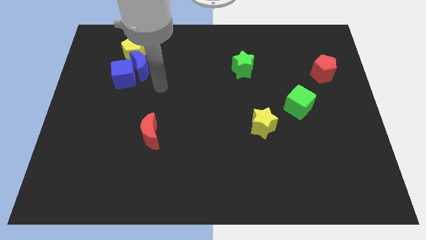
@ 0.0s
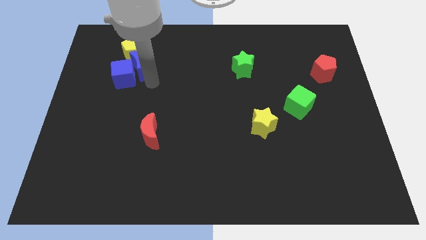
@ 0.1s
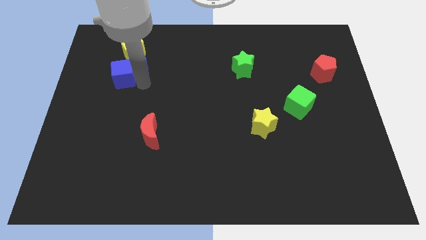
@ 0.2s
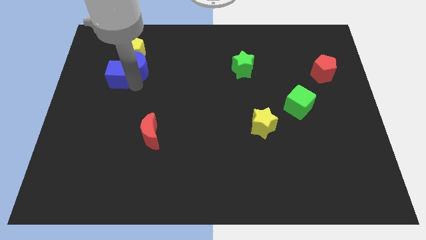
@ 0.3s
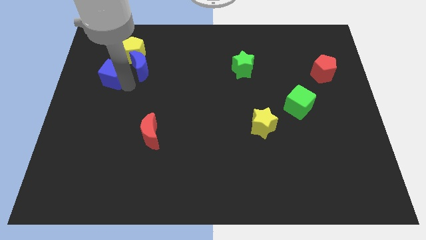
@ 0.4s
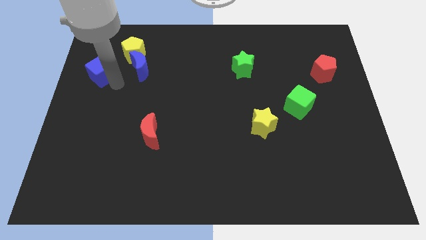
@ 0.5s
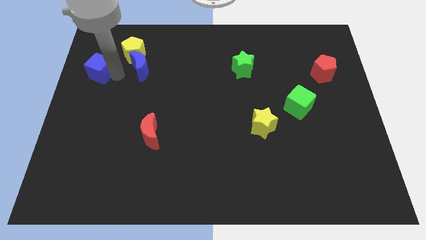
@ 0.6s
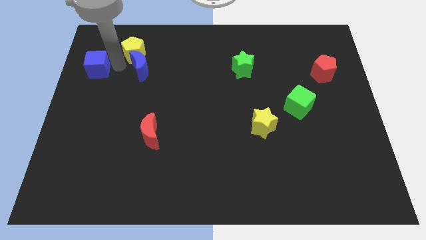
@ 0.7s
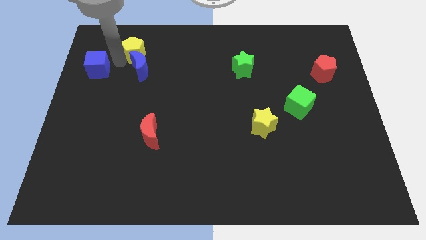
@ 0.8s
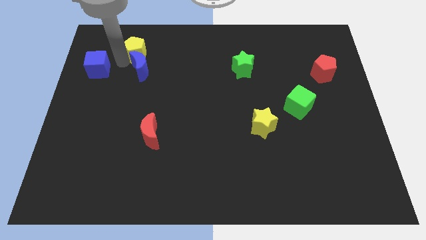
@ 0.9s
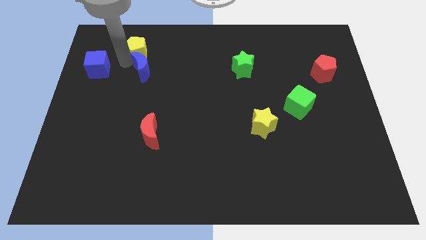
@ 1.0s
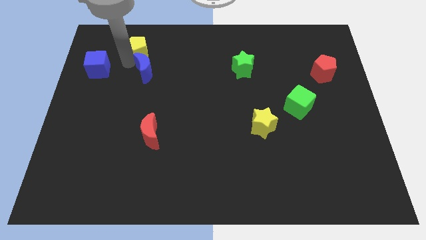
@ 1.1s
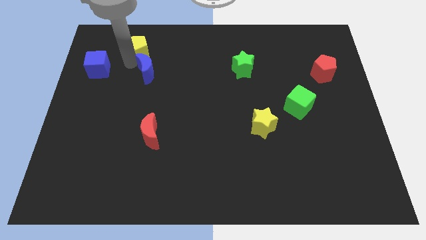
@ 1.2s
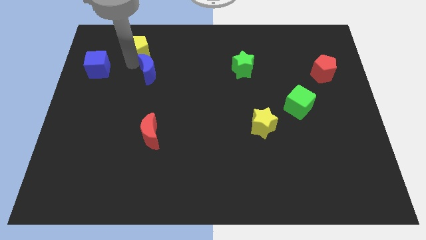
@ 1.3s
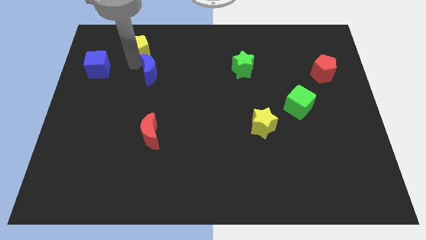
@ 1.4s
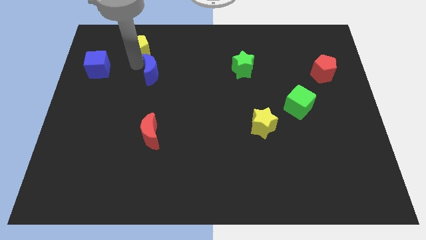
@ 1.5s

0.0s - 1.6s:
separate the blue moon from the blue cube and yellow pentagon

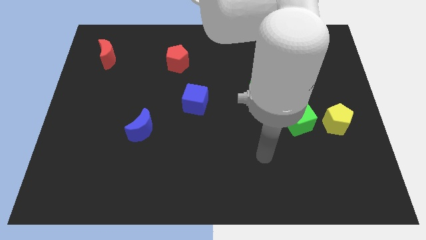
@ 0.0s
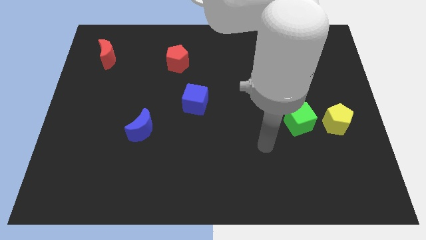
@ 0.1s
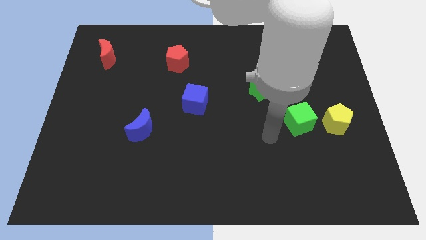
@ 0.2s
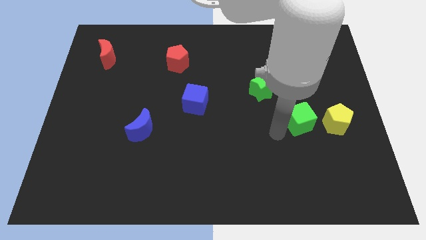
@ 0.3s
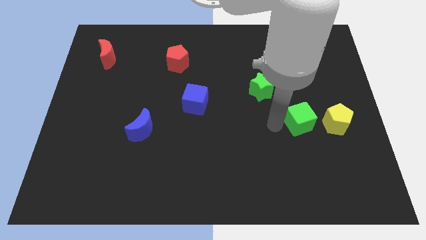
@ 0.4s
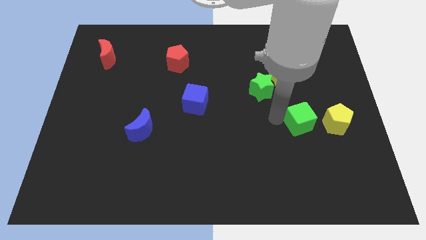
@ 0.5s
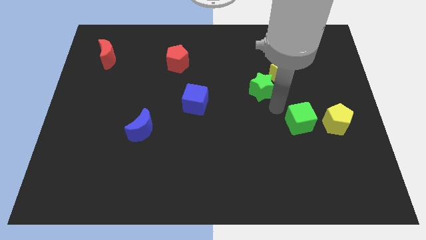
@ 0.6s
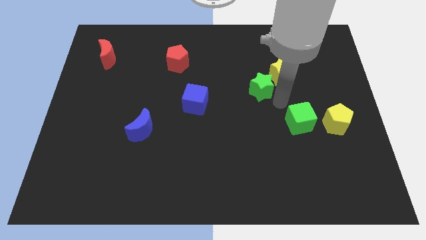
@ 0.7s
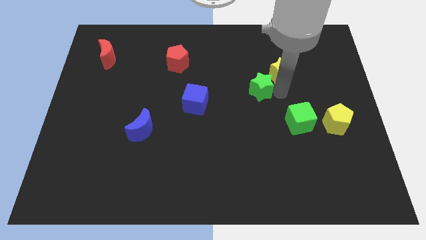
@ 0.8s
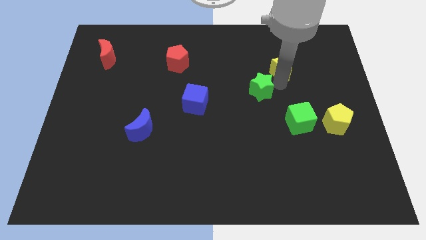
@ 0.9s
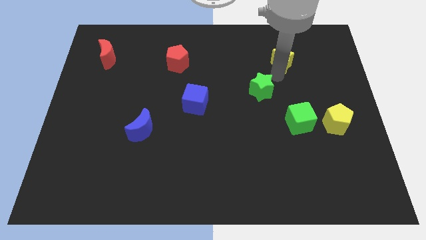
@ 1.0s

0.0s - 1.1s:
pull the green star apart from the yellow star

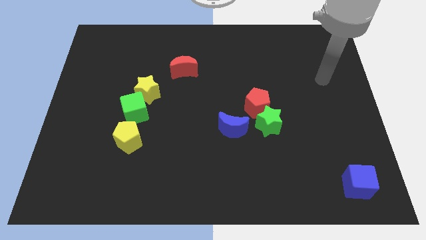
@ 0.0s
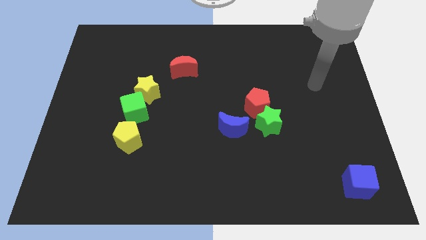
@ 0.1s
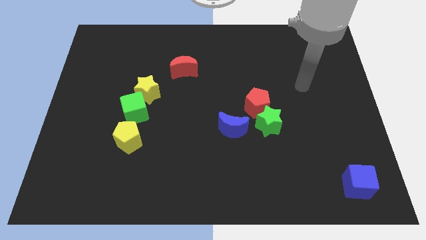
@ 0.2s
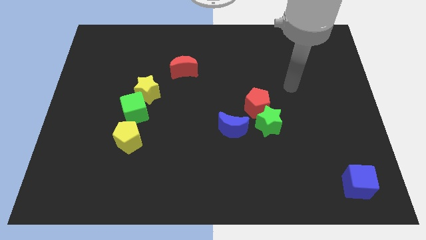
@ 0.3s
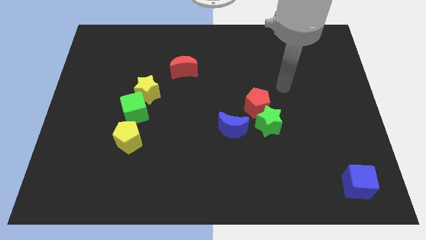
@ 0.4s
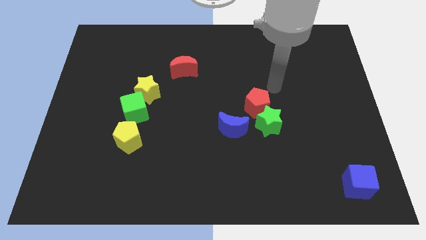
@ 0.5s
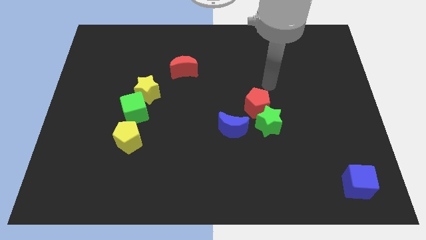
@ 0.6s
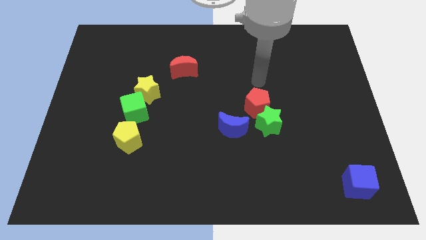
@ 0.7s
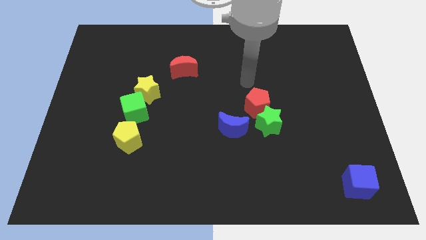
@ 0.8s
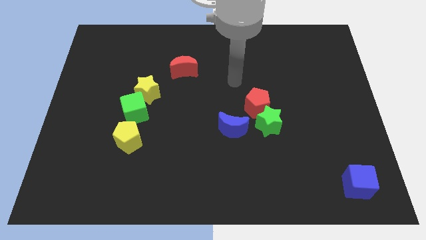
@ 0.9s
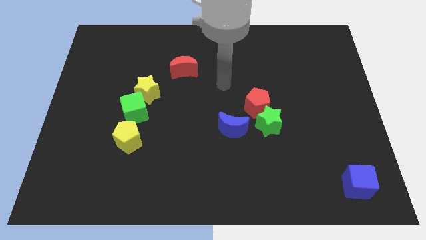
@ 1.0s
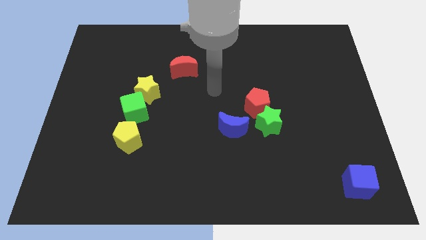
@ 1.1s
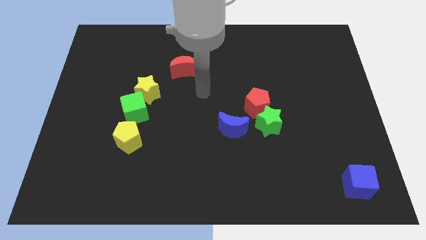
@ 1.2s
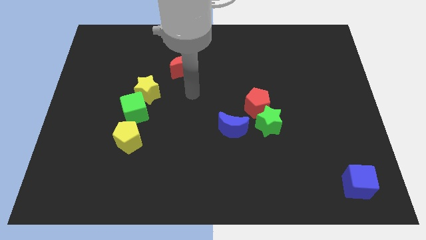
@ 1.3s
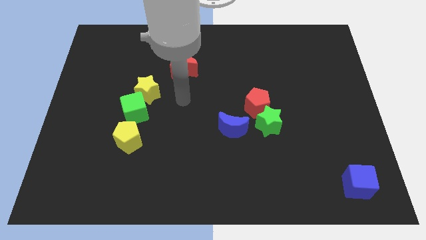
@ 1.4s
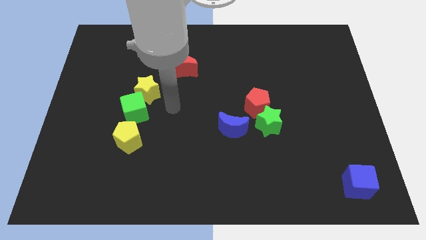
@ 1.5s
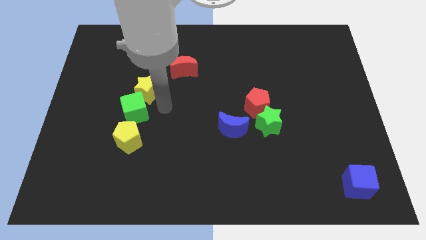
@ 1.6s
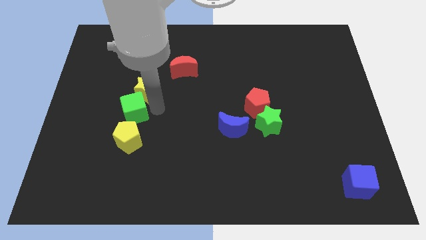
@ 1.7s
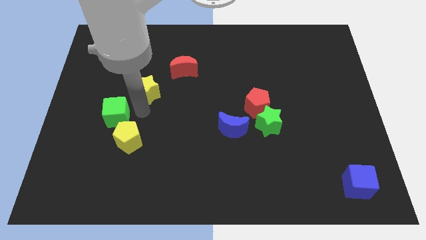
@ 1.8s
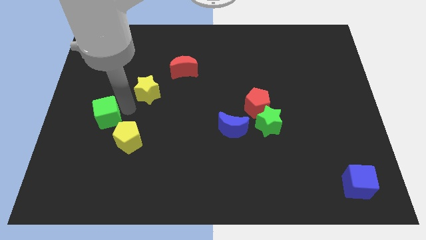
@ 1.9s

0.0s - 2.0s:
separate the yellow star from the green cube

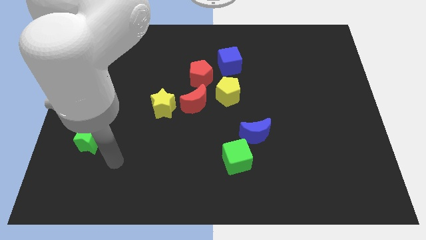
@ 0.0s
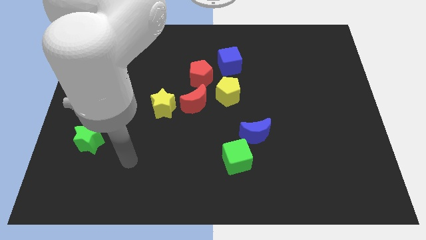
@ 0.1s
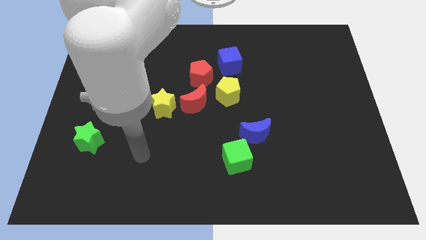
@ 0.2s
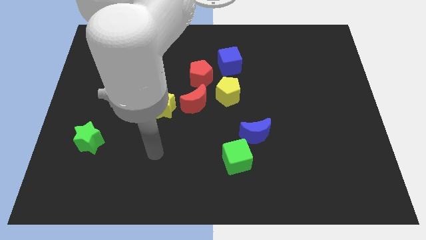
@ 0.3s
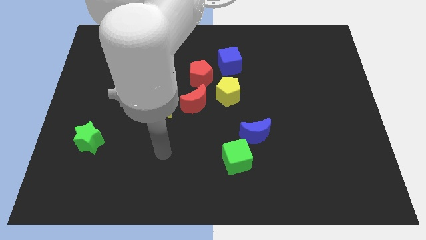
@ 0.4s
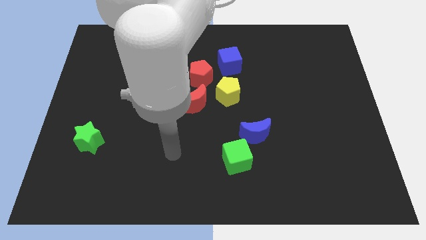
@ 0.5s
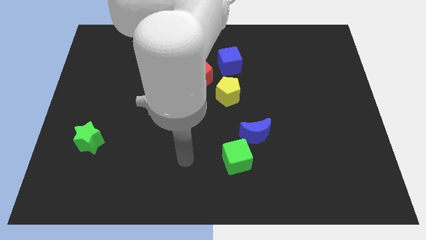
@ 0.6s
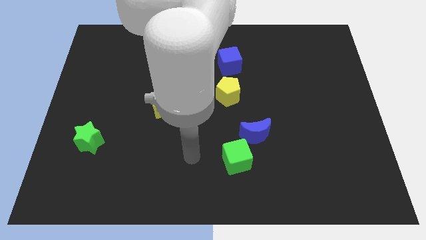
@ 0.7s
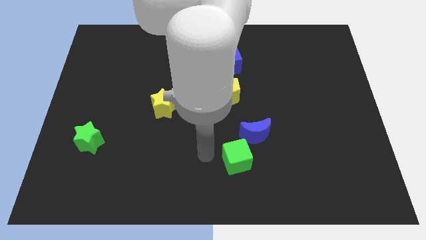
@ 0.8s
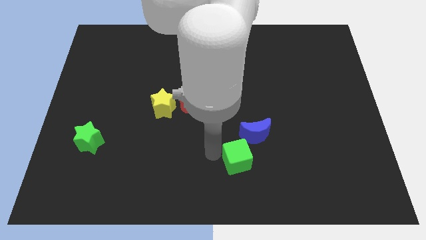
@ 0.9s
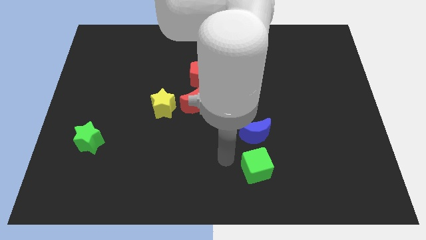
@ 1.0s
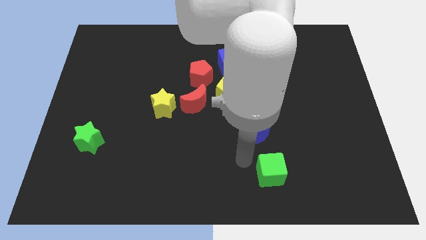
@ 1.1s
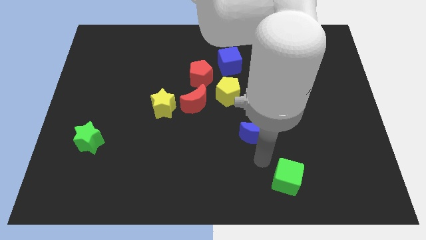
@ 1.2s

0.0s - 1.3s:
pull the blue moon apart from the green cube

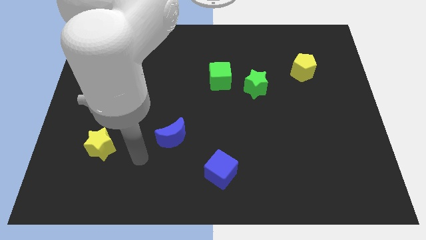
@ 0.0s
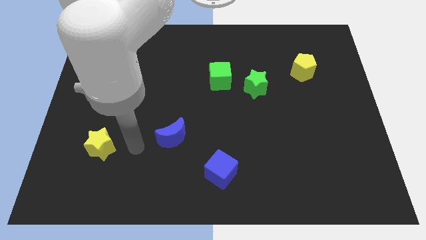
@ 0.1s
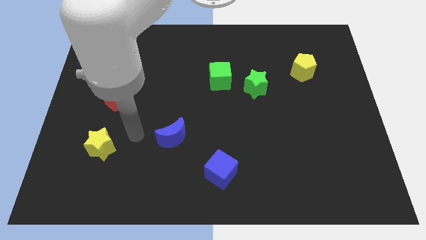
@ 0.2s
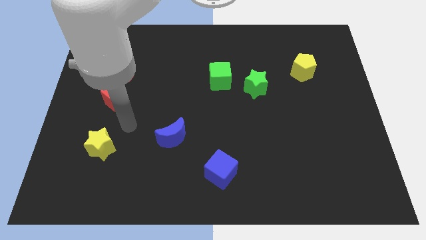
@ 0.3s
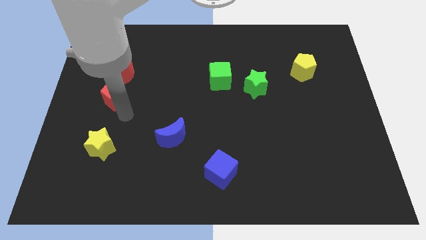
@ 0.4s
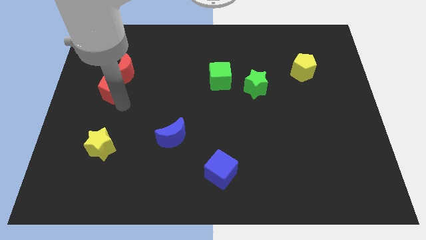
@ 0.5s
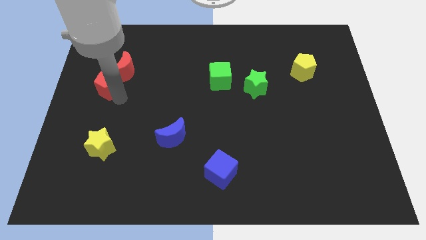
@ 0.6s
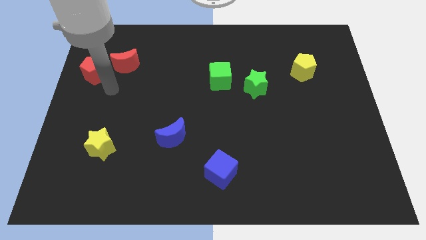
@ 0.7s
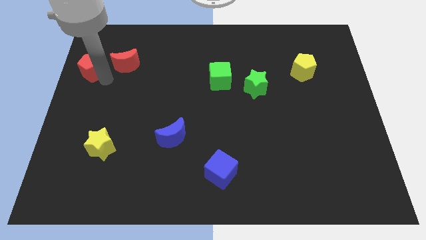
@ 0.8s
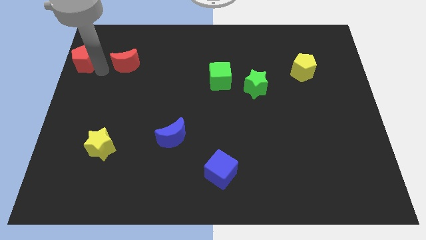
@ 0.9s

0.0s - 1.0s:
separate the red moon from the red pentagon

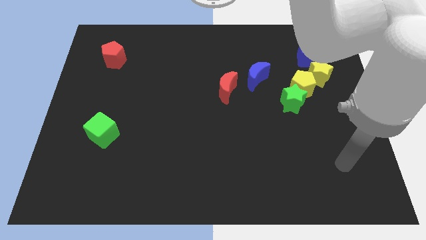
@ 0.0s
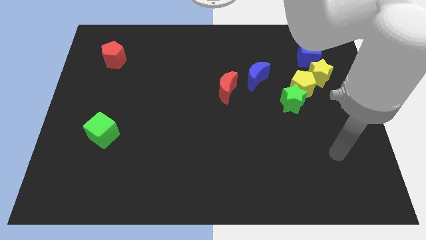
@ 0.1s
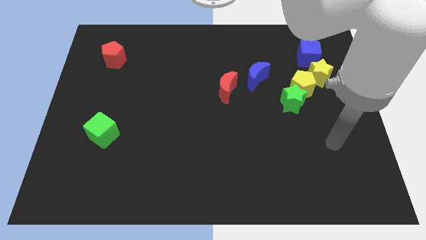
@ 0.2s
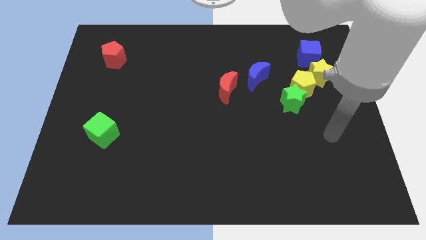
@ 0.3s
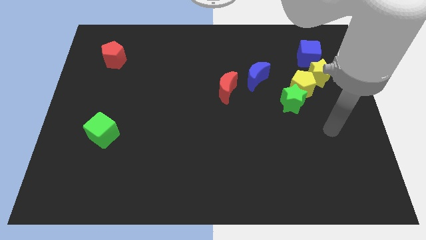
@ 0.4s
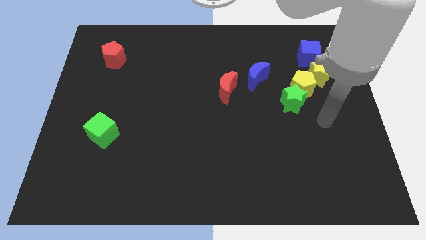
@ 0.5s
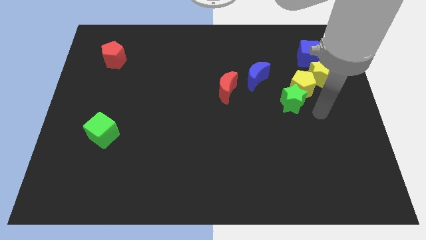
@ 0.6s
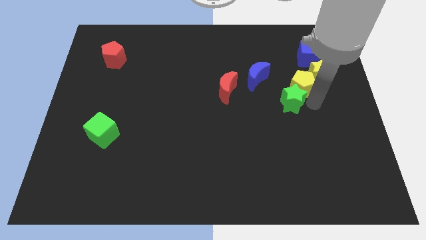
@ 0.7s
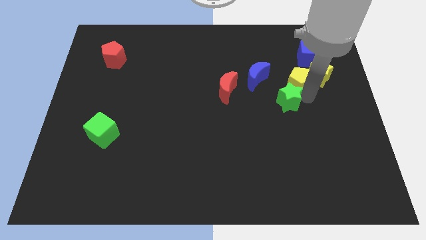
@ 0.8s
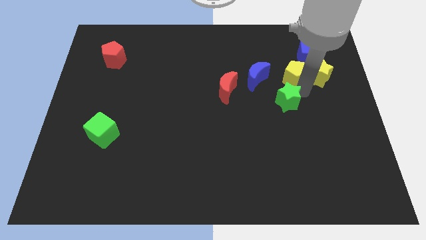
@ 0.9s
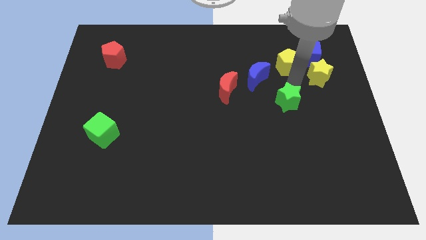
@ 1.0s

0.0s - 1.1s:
move the green star away from the yellow pentagon

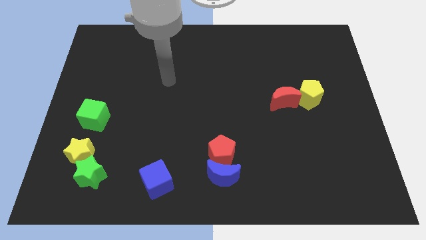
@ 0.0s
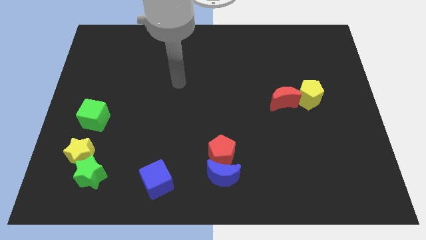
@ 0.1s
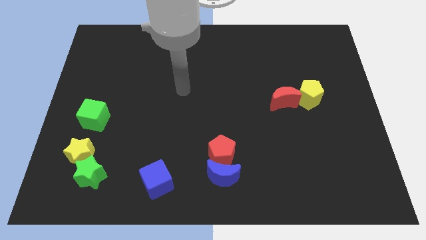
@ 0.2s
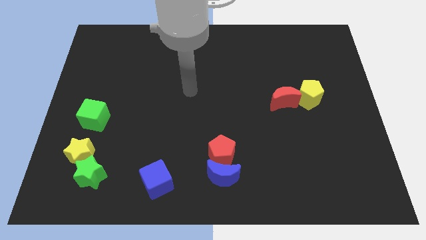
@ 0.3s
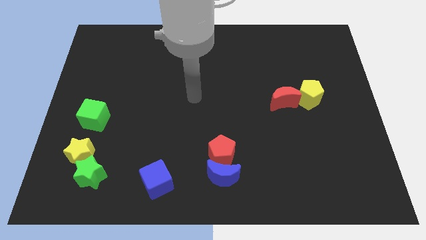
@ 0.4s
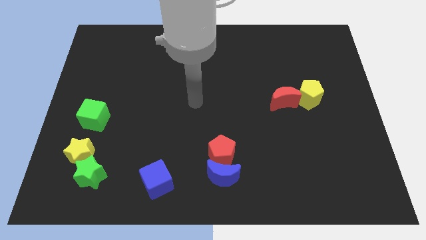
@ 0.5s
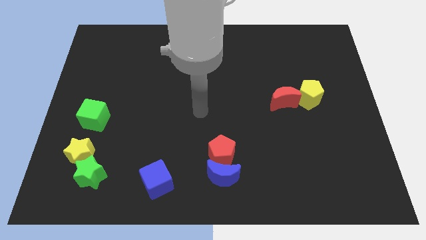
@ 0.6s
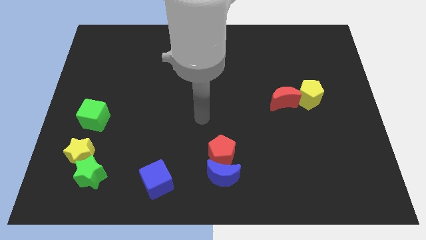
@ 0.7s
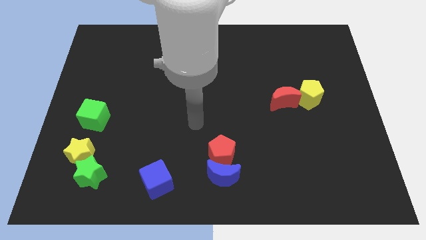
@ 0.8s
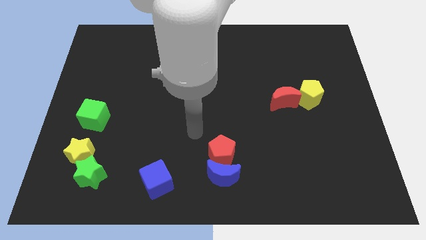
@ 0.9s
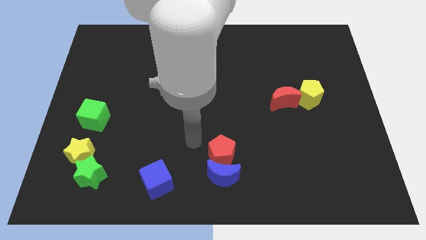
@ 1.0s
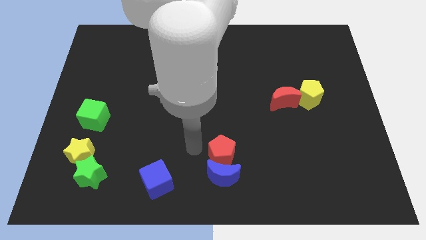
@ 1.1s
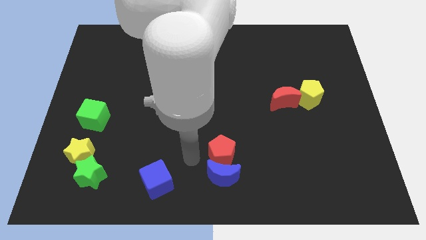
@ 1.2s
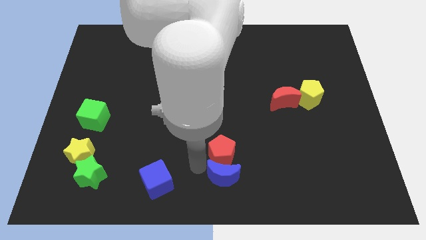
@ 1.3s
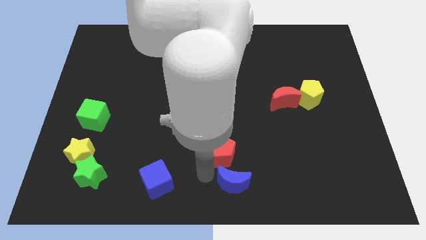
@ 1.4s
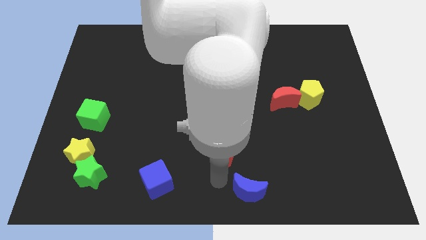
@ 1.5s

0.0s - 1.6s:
pull the red pentagon apart from the blue moon
